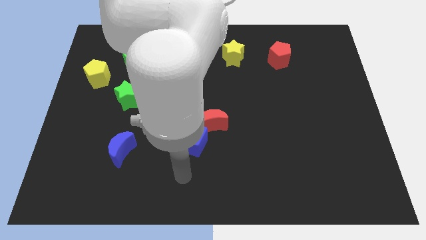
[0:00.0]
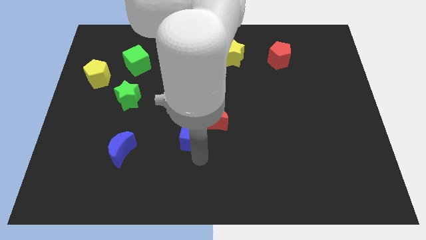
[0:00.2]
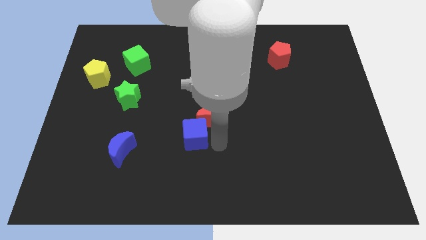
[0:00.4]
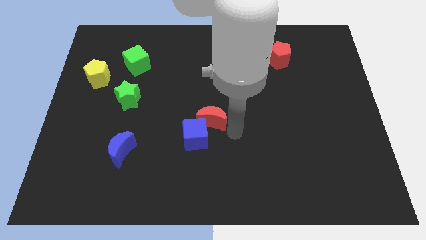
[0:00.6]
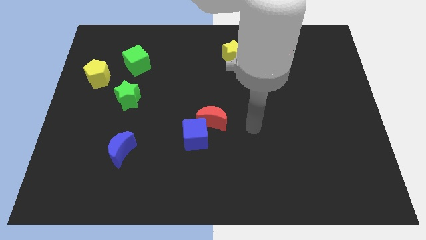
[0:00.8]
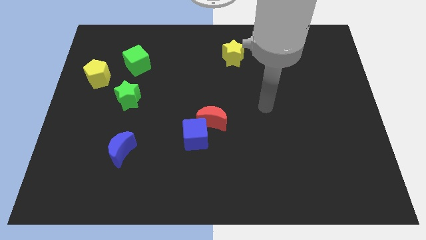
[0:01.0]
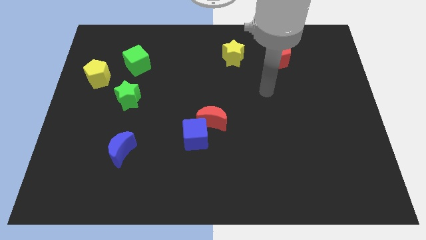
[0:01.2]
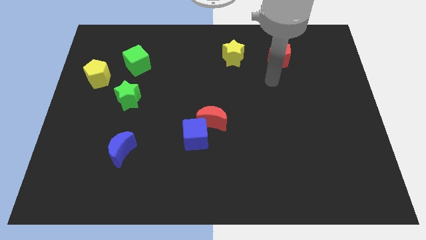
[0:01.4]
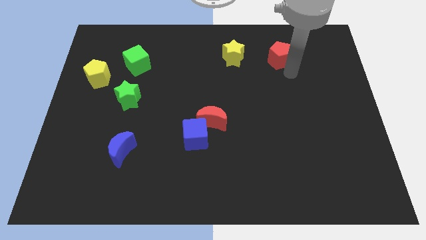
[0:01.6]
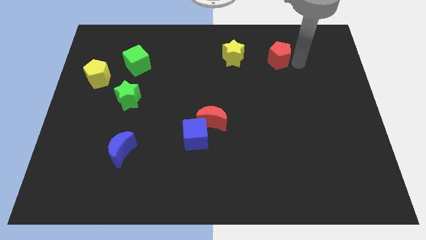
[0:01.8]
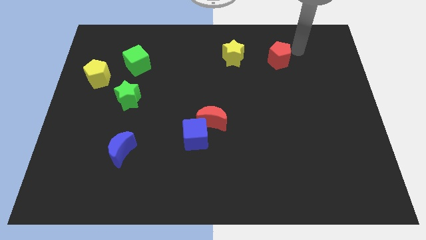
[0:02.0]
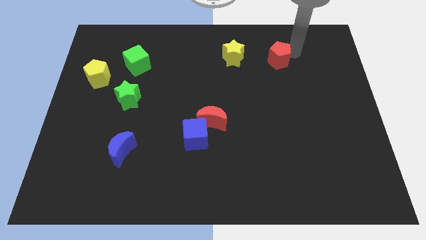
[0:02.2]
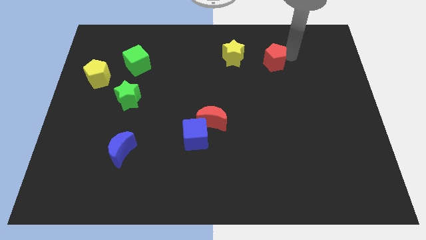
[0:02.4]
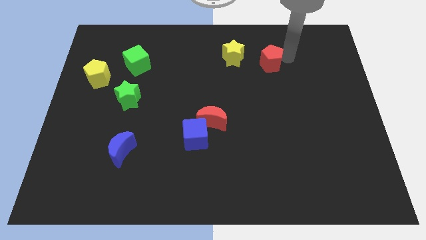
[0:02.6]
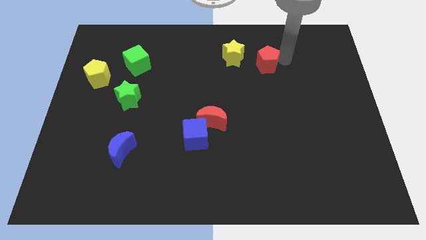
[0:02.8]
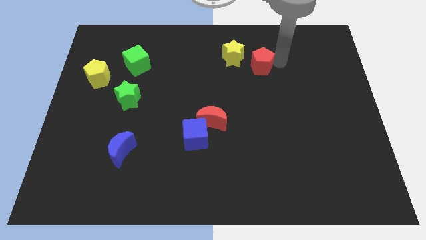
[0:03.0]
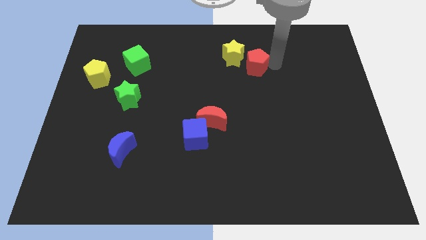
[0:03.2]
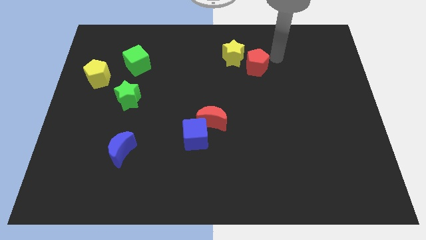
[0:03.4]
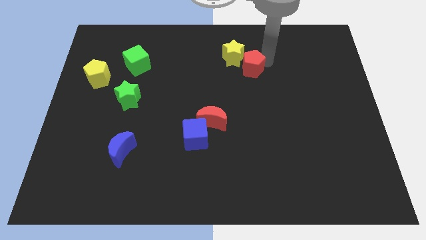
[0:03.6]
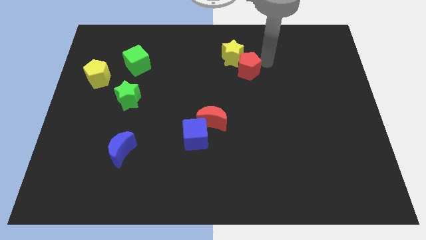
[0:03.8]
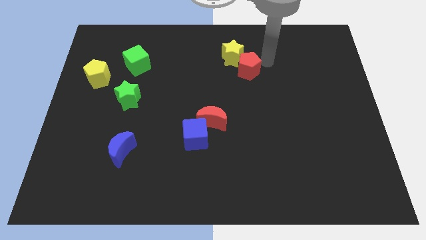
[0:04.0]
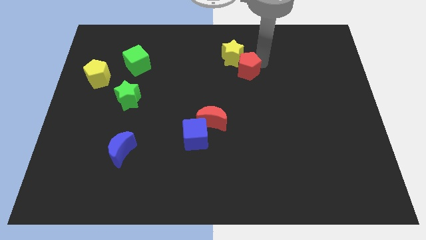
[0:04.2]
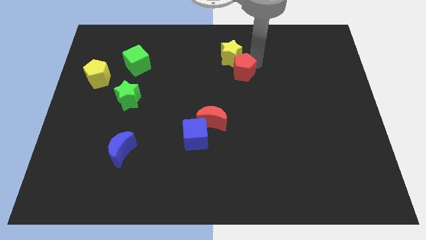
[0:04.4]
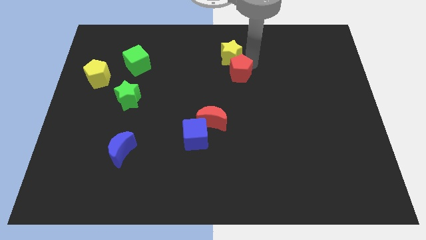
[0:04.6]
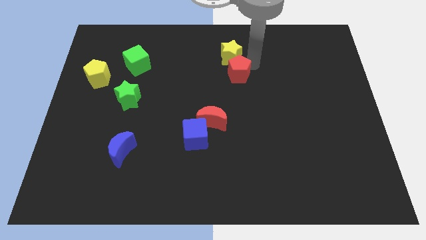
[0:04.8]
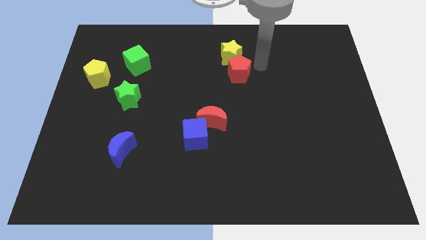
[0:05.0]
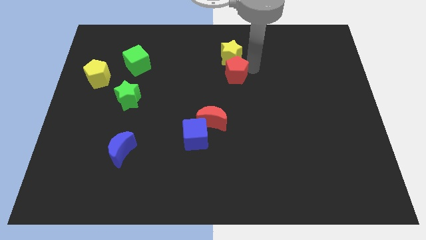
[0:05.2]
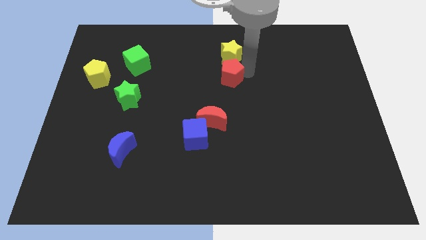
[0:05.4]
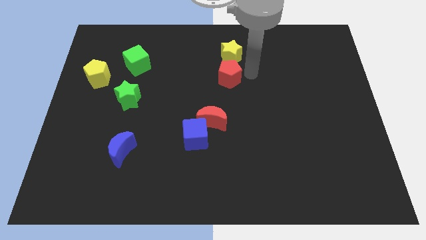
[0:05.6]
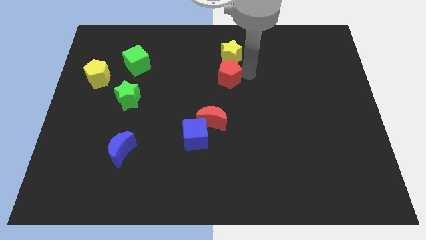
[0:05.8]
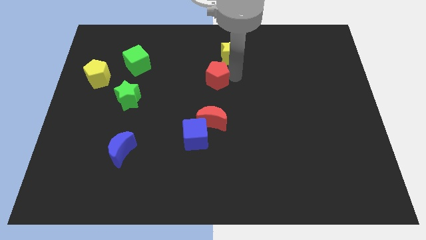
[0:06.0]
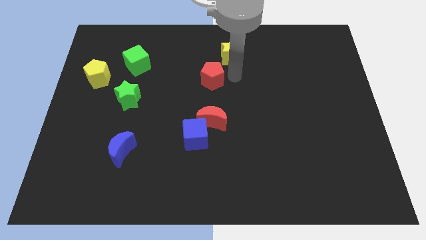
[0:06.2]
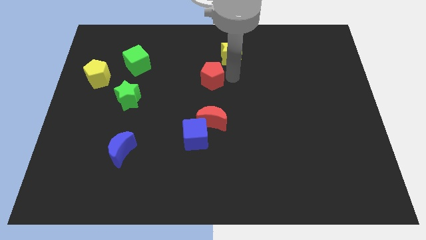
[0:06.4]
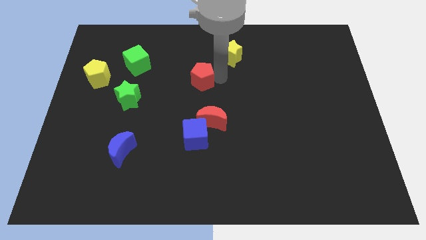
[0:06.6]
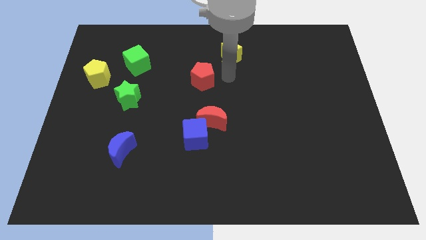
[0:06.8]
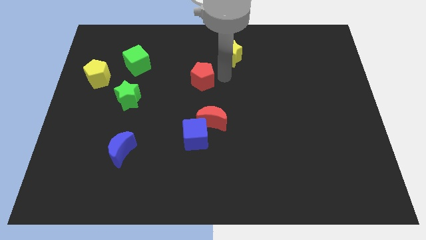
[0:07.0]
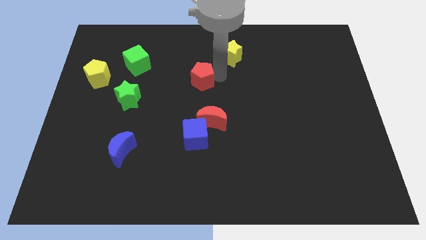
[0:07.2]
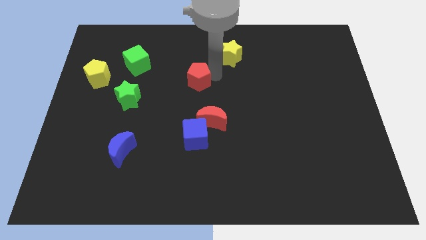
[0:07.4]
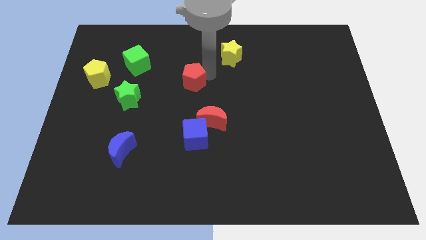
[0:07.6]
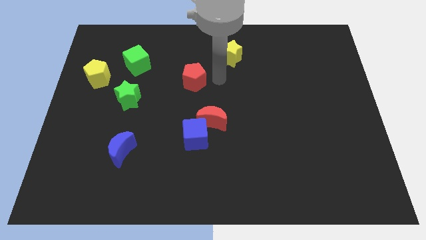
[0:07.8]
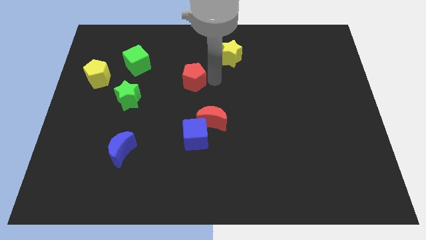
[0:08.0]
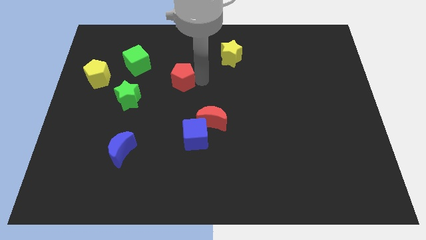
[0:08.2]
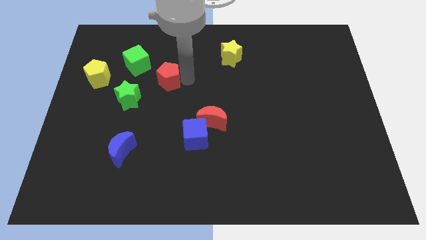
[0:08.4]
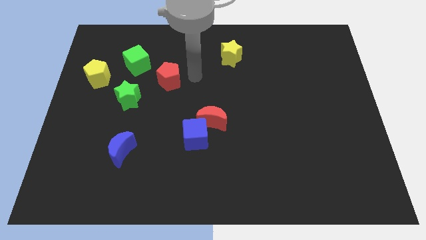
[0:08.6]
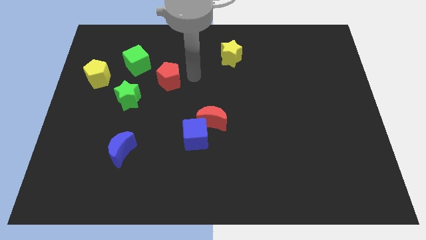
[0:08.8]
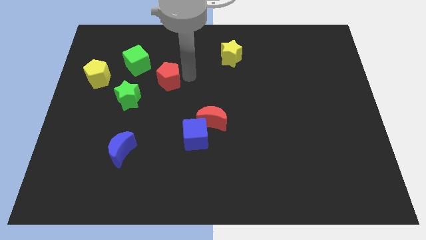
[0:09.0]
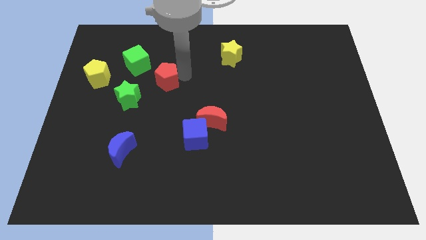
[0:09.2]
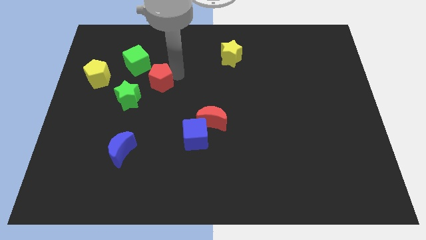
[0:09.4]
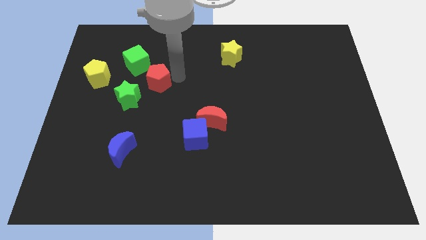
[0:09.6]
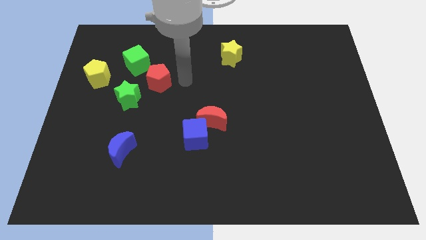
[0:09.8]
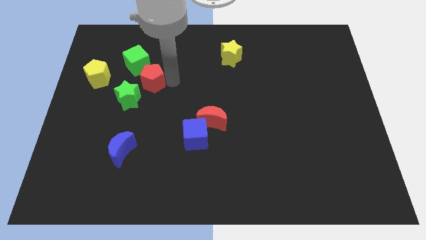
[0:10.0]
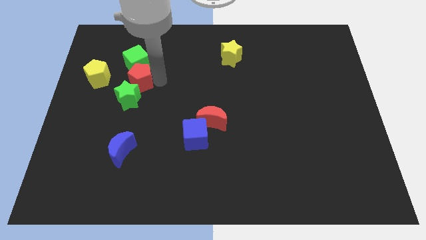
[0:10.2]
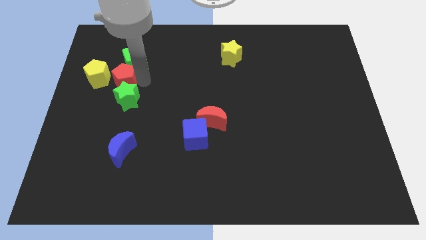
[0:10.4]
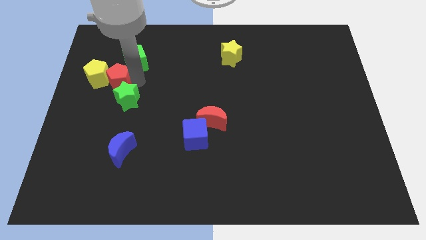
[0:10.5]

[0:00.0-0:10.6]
put the red pentagon close to the yellow pentagon

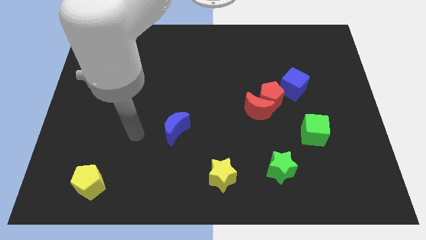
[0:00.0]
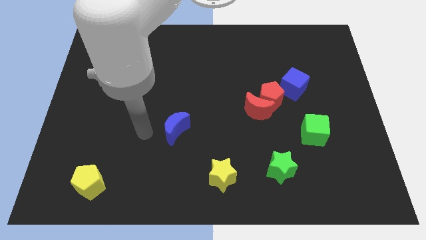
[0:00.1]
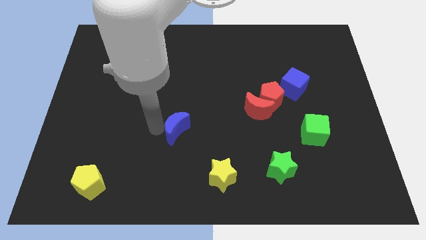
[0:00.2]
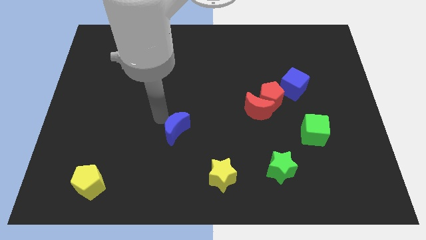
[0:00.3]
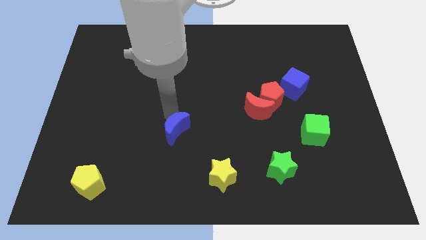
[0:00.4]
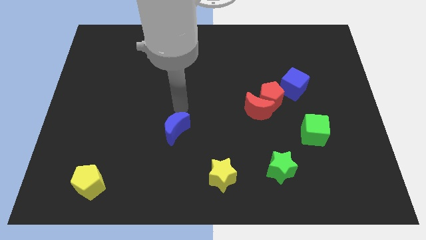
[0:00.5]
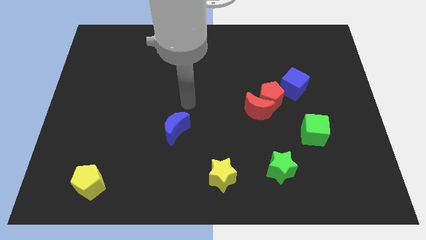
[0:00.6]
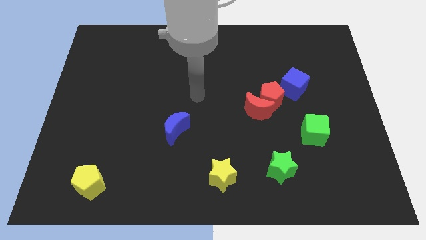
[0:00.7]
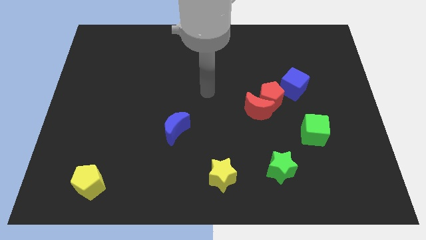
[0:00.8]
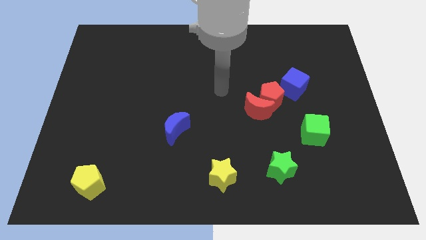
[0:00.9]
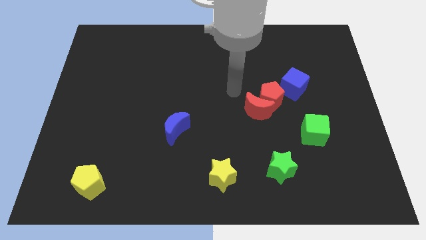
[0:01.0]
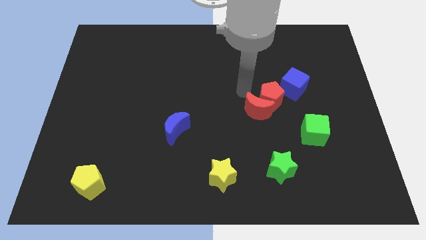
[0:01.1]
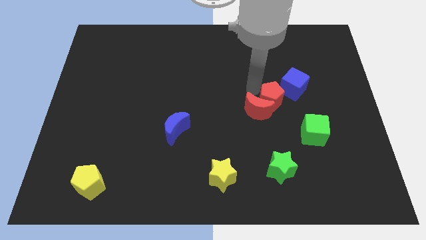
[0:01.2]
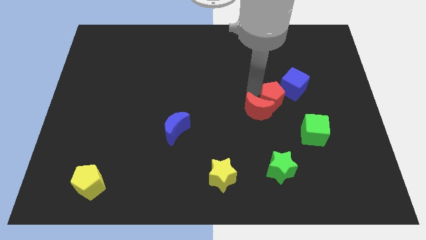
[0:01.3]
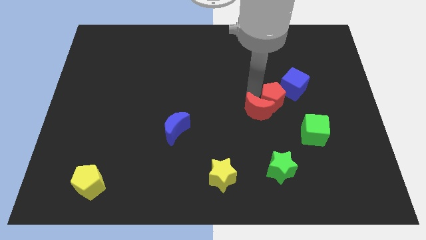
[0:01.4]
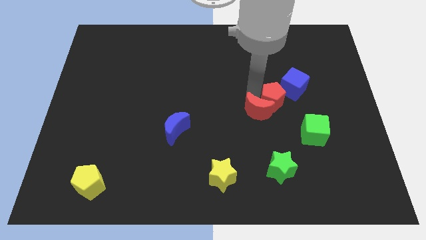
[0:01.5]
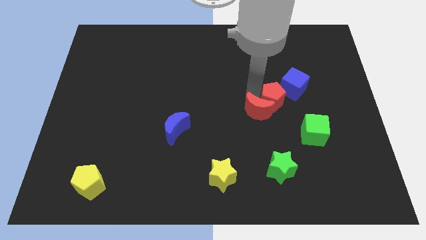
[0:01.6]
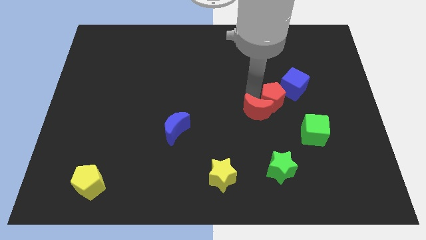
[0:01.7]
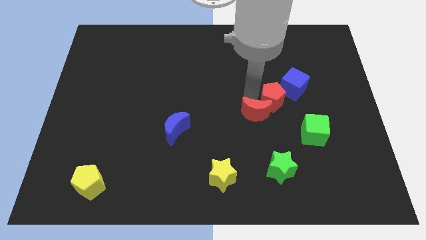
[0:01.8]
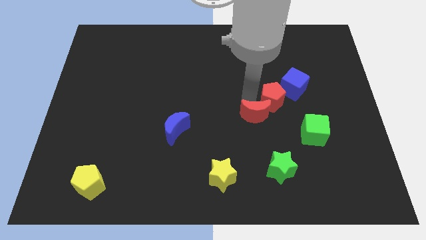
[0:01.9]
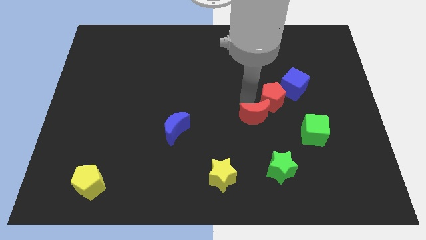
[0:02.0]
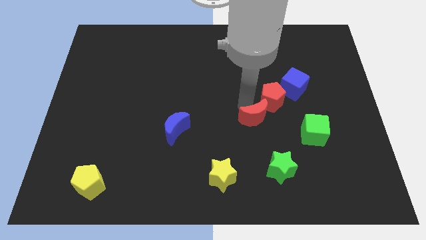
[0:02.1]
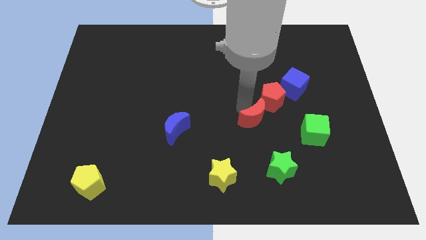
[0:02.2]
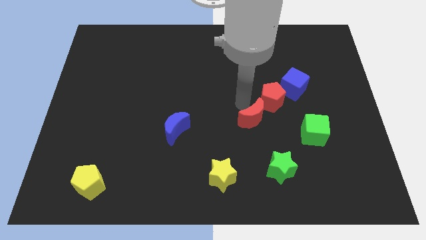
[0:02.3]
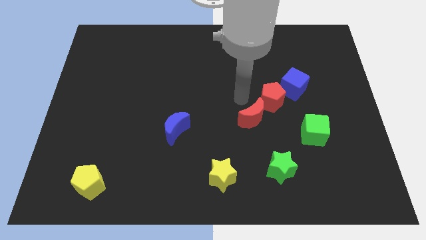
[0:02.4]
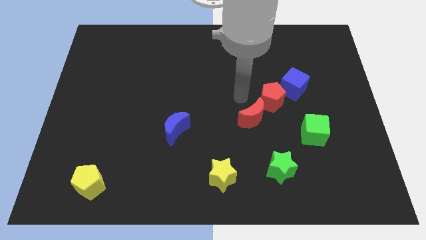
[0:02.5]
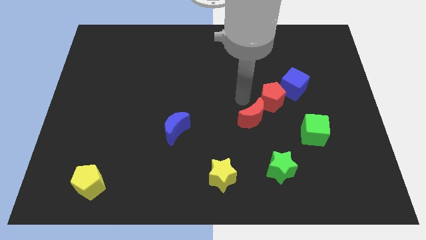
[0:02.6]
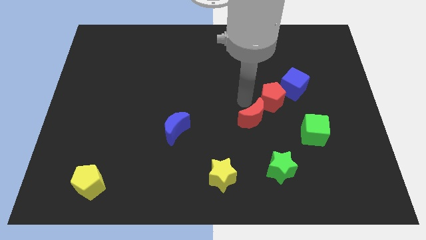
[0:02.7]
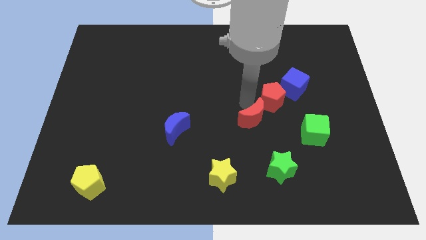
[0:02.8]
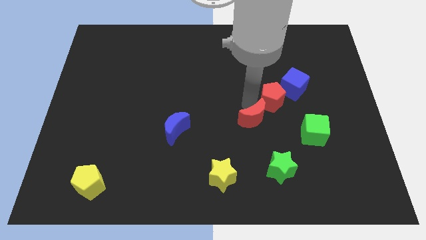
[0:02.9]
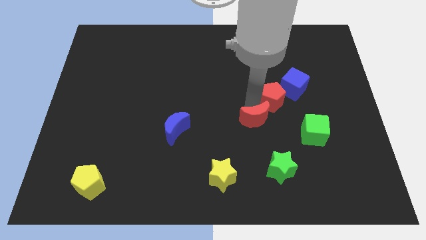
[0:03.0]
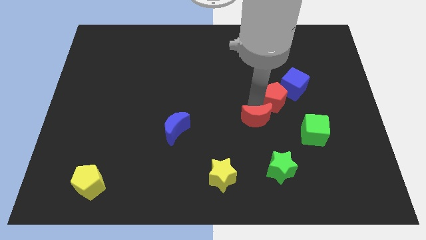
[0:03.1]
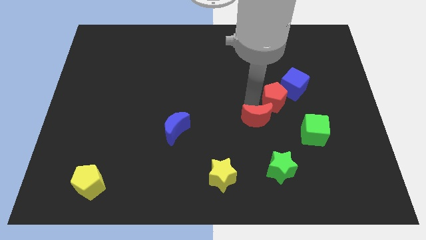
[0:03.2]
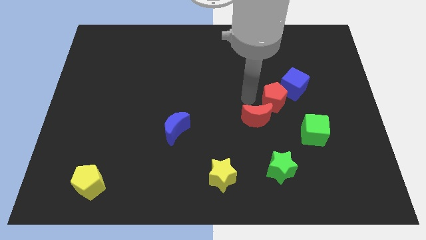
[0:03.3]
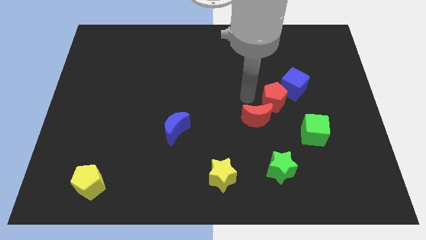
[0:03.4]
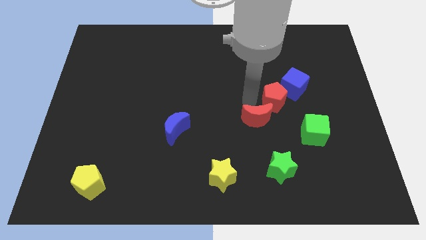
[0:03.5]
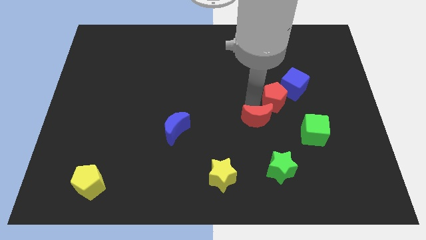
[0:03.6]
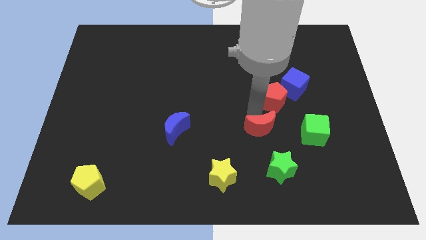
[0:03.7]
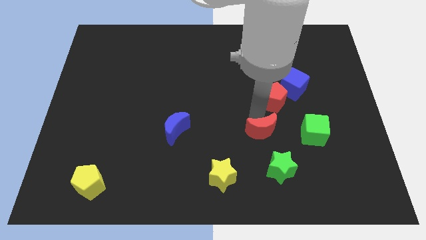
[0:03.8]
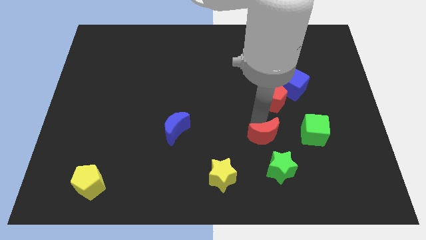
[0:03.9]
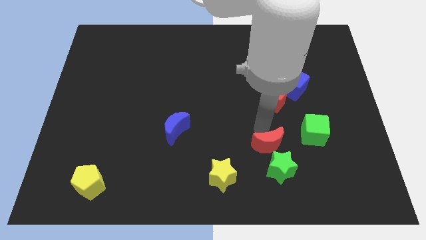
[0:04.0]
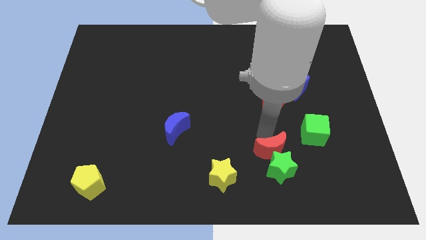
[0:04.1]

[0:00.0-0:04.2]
slide the red moon next to the green star
